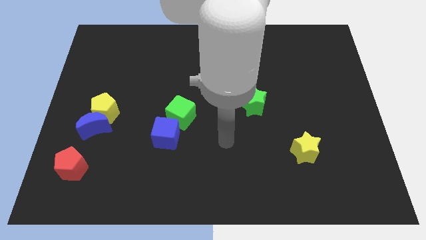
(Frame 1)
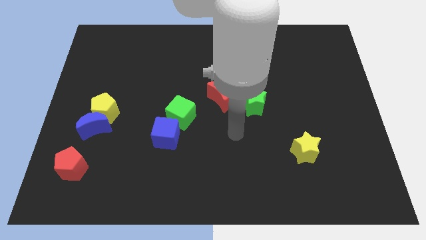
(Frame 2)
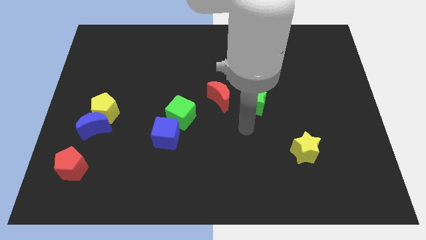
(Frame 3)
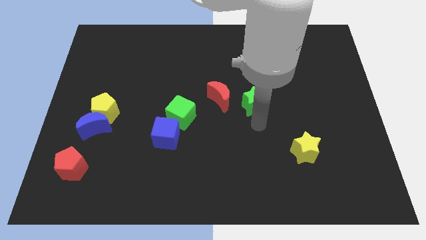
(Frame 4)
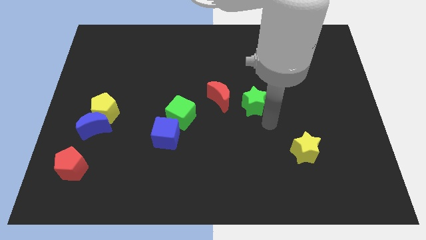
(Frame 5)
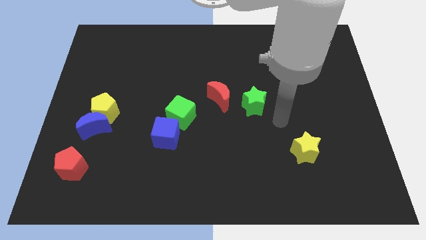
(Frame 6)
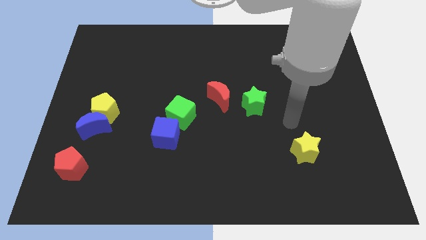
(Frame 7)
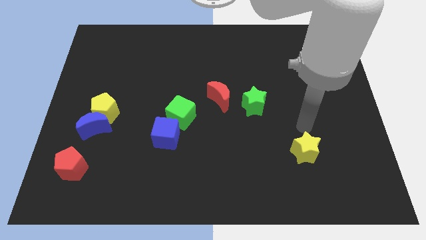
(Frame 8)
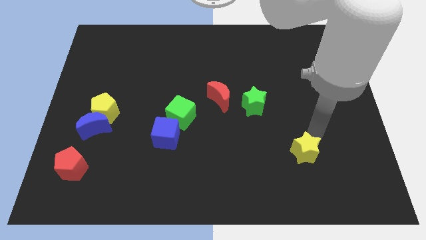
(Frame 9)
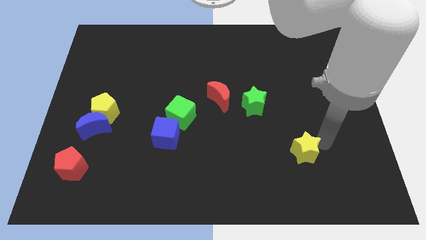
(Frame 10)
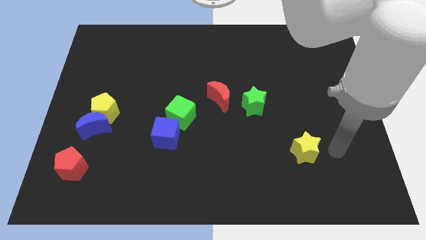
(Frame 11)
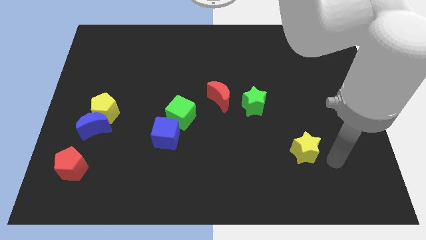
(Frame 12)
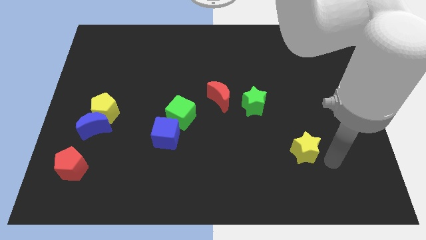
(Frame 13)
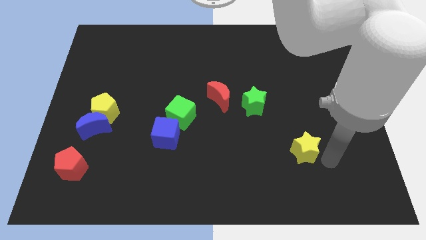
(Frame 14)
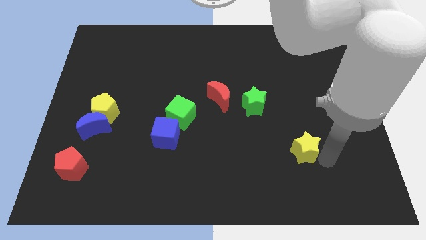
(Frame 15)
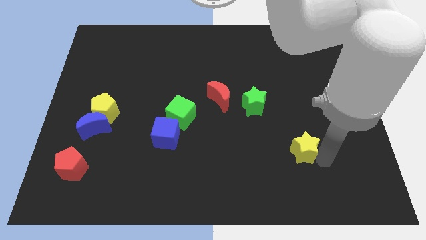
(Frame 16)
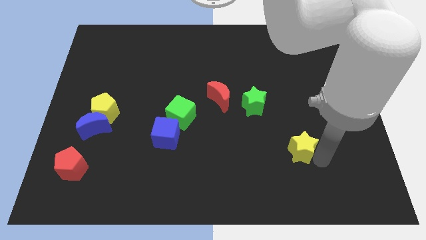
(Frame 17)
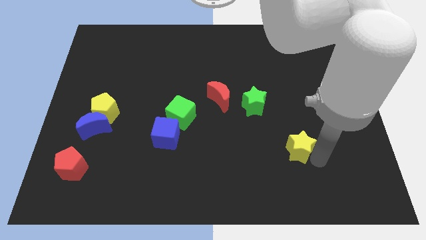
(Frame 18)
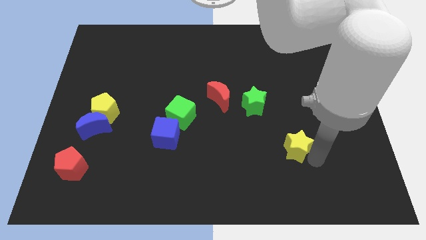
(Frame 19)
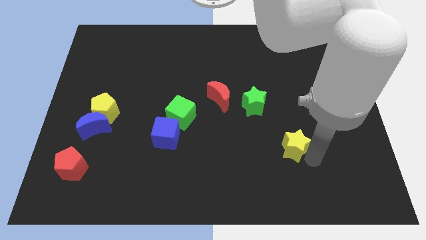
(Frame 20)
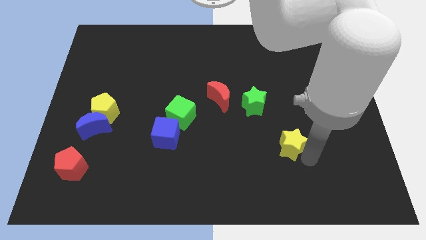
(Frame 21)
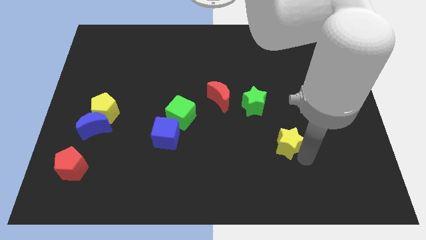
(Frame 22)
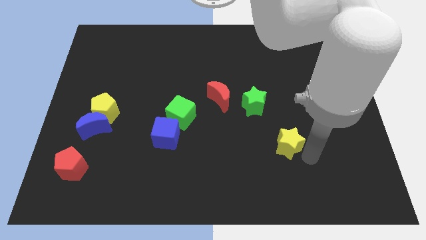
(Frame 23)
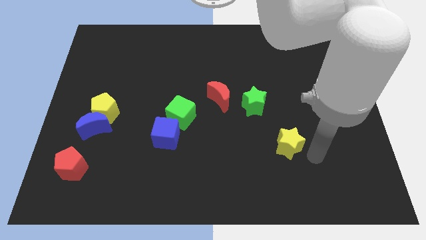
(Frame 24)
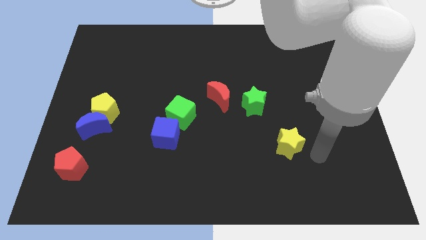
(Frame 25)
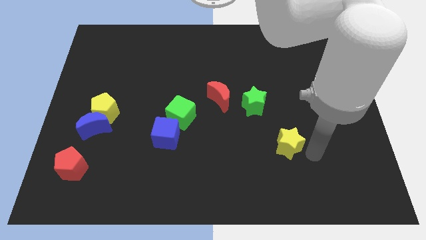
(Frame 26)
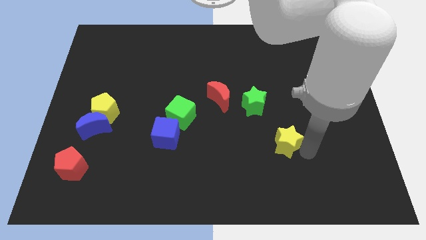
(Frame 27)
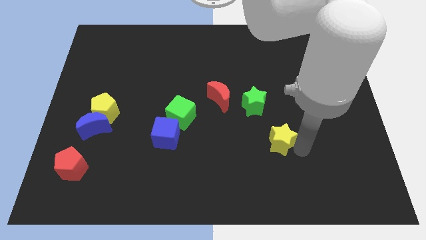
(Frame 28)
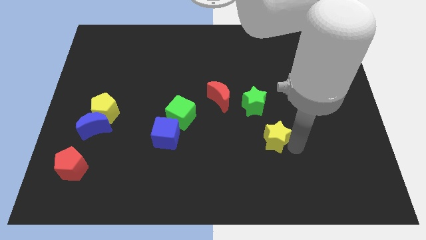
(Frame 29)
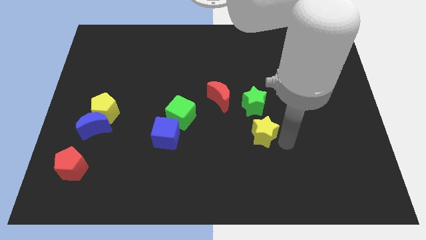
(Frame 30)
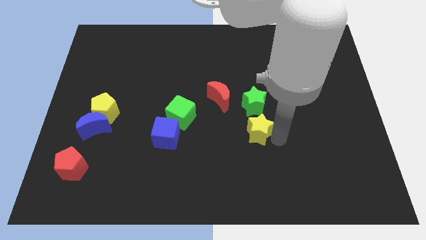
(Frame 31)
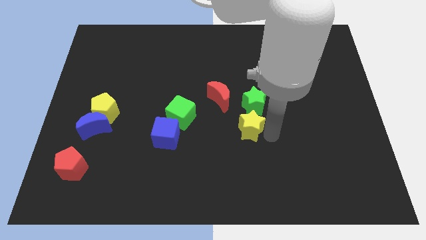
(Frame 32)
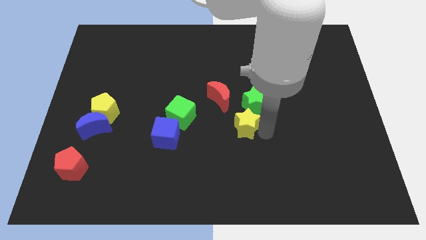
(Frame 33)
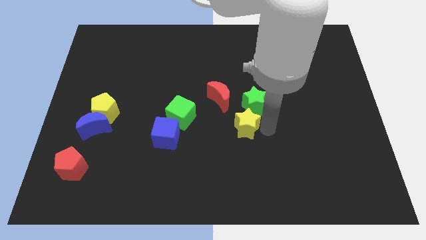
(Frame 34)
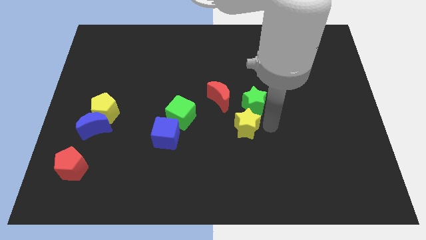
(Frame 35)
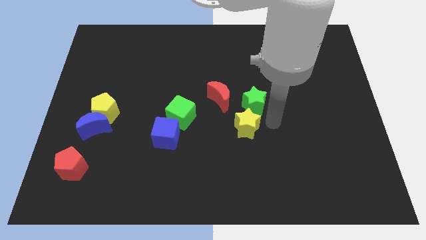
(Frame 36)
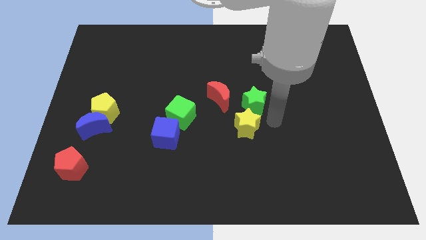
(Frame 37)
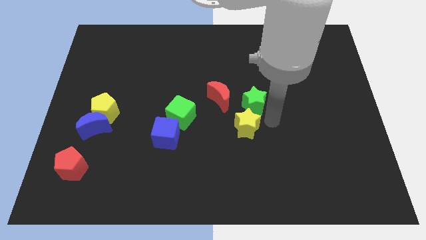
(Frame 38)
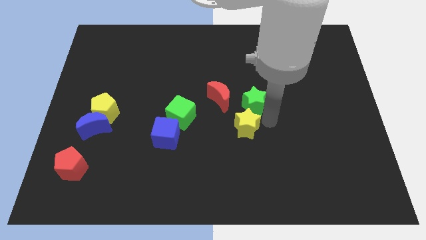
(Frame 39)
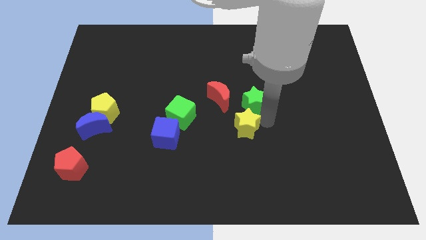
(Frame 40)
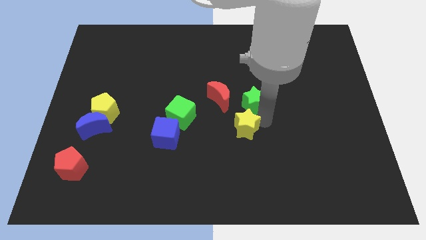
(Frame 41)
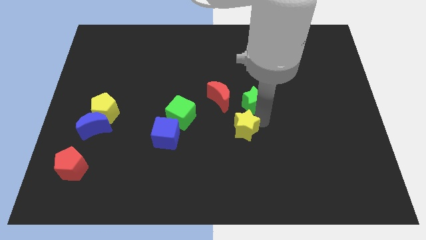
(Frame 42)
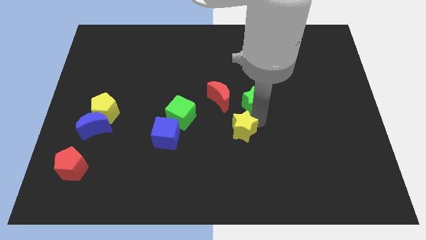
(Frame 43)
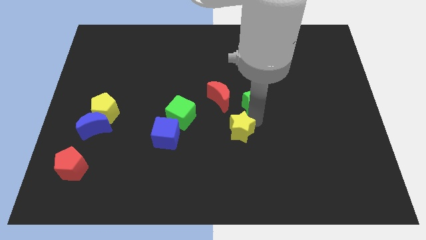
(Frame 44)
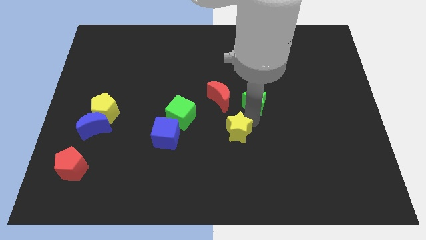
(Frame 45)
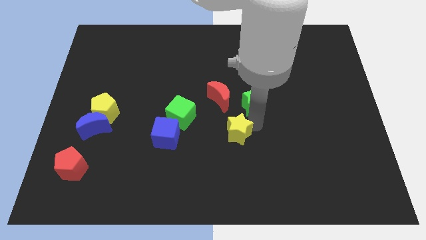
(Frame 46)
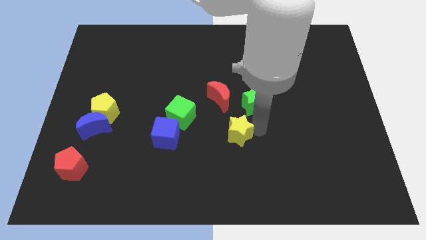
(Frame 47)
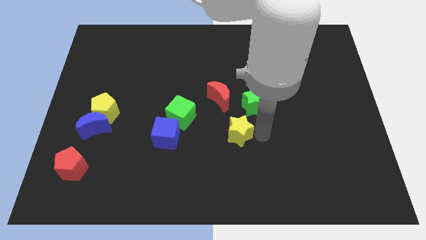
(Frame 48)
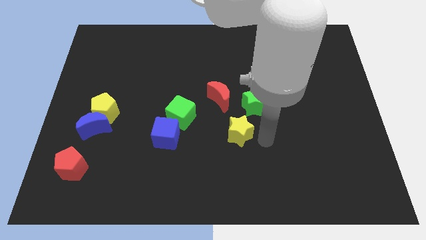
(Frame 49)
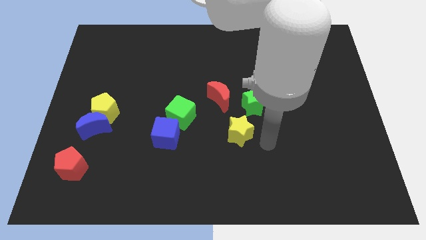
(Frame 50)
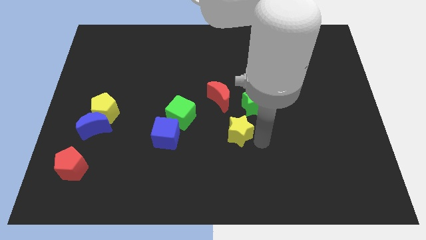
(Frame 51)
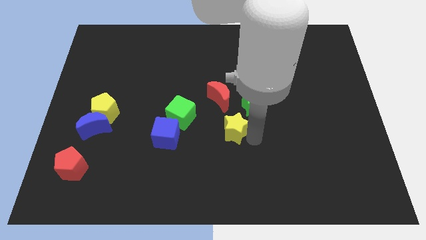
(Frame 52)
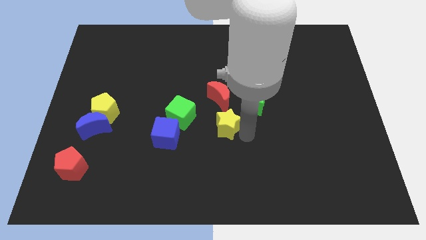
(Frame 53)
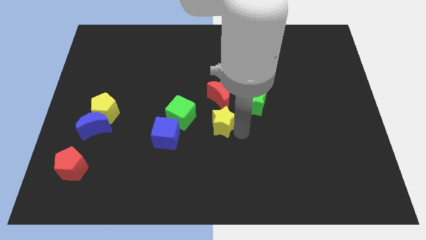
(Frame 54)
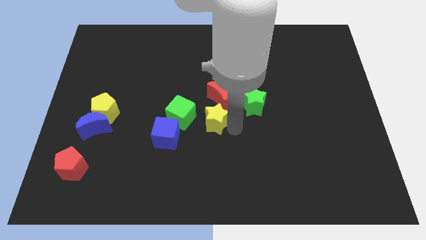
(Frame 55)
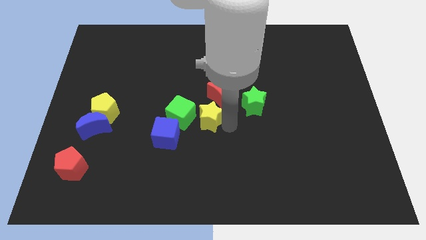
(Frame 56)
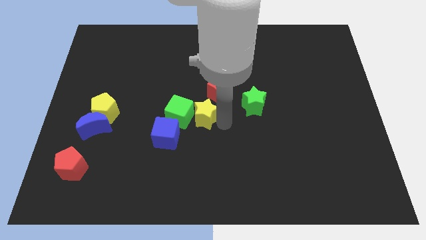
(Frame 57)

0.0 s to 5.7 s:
slide the yellow star close to the green cube
